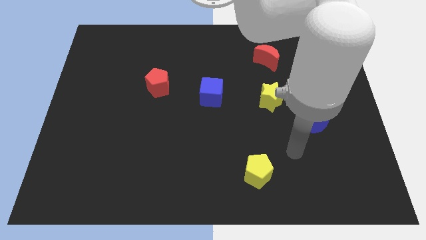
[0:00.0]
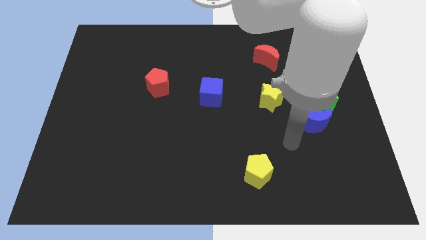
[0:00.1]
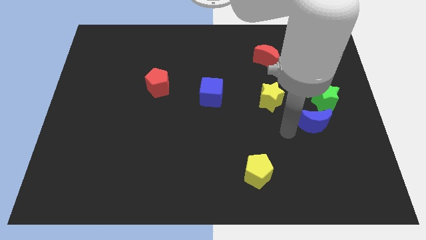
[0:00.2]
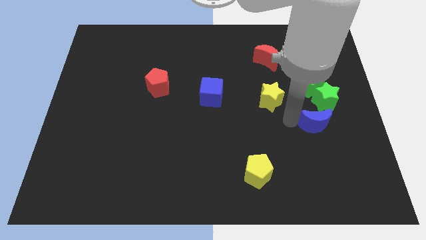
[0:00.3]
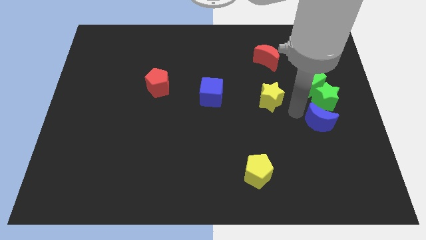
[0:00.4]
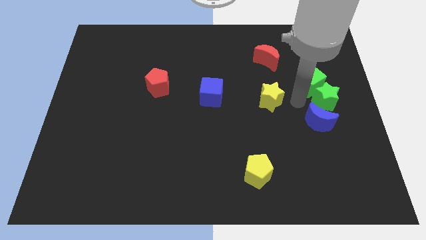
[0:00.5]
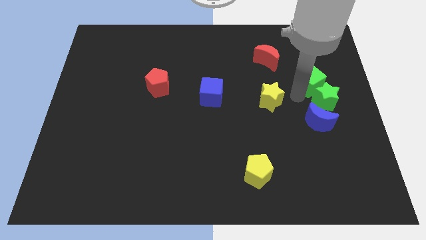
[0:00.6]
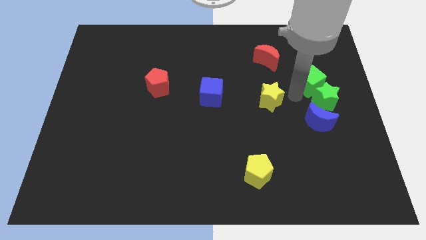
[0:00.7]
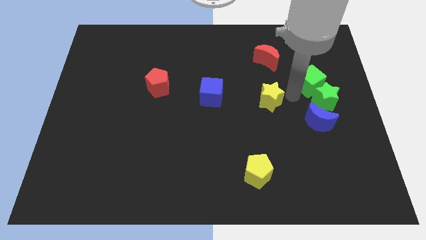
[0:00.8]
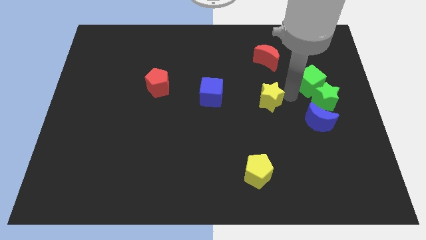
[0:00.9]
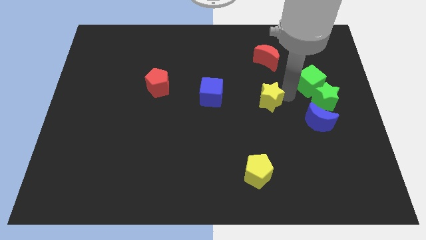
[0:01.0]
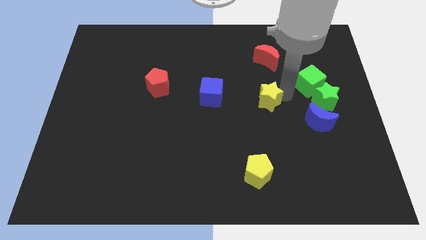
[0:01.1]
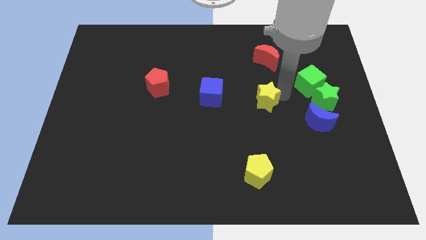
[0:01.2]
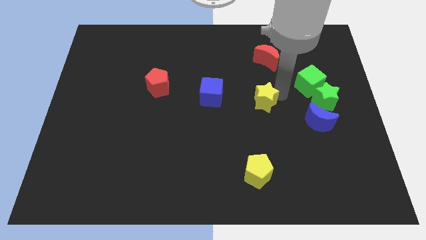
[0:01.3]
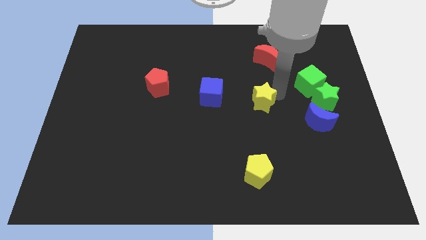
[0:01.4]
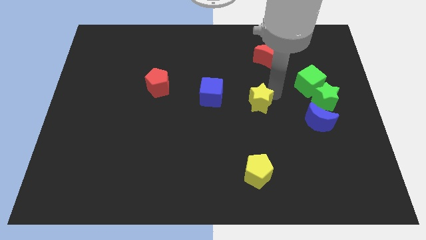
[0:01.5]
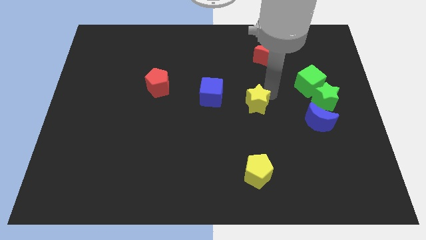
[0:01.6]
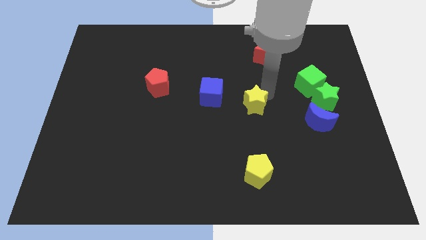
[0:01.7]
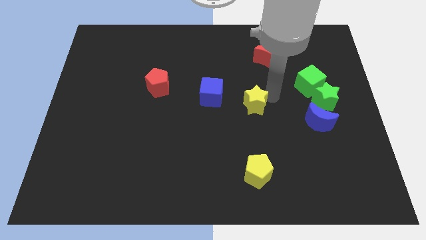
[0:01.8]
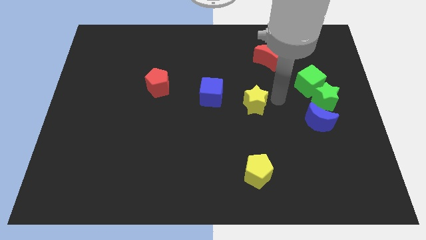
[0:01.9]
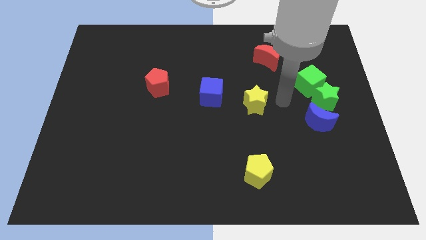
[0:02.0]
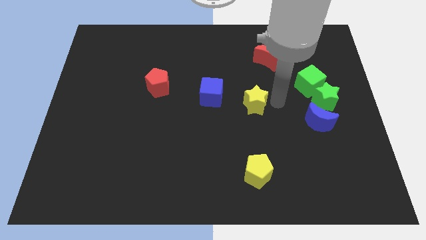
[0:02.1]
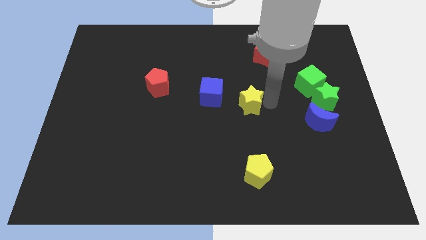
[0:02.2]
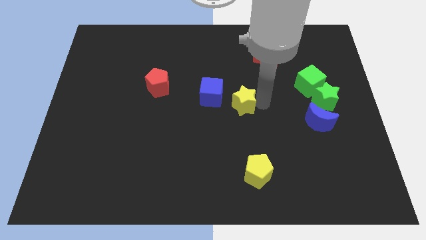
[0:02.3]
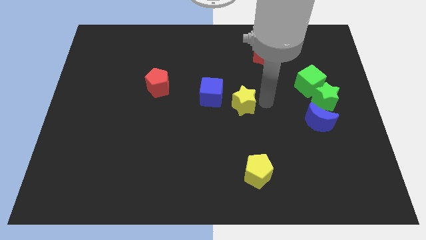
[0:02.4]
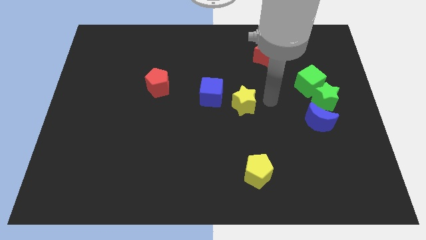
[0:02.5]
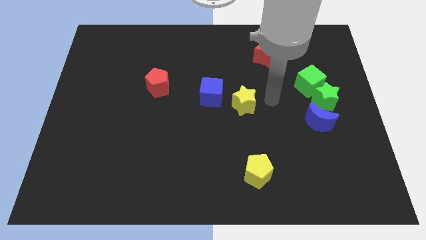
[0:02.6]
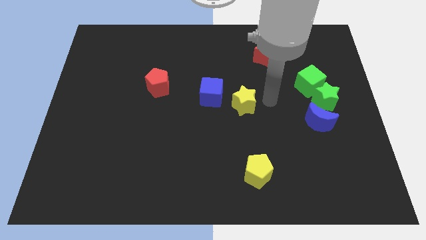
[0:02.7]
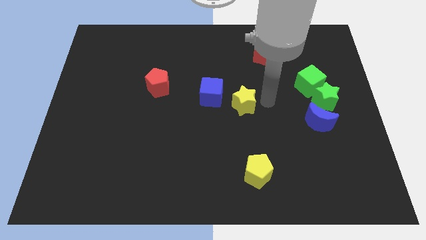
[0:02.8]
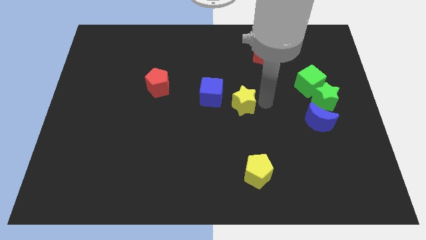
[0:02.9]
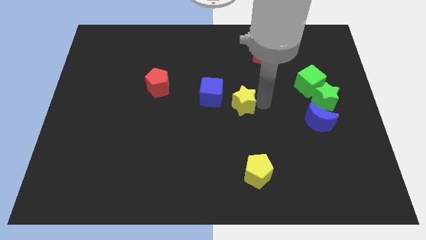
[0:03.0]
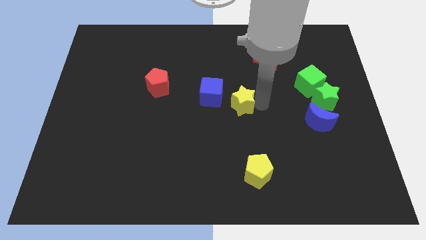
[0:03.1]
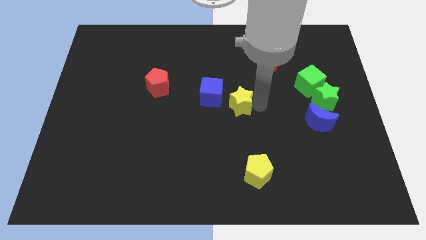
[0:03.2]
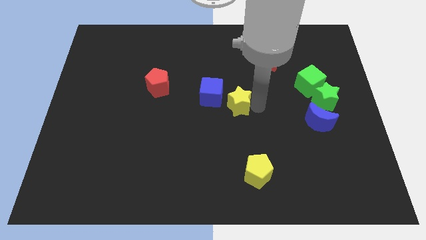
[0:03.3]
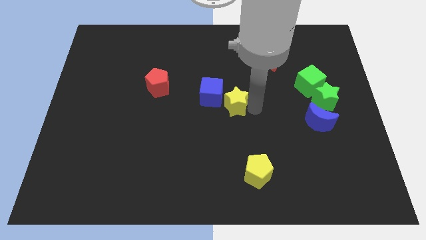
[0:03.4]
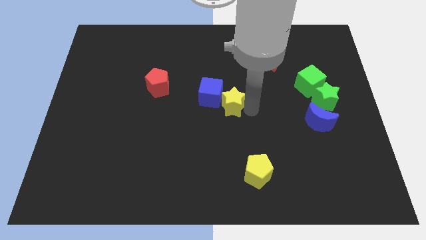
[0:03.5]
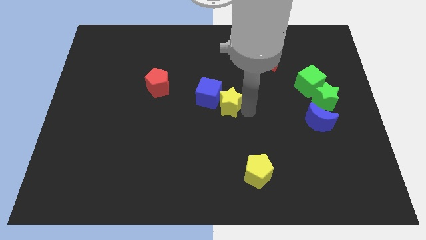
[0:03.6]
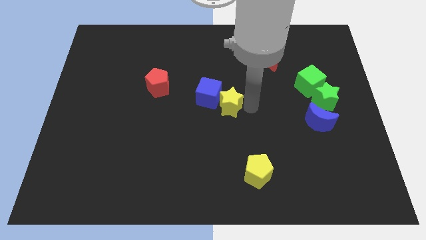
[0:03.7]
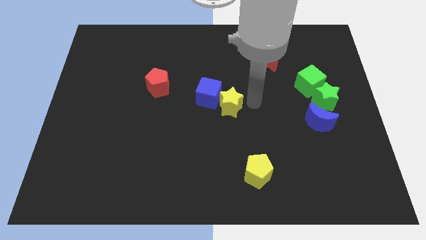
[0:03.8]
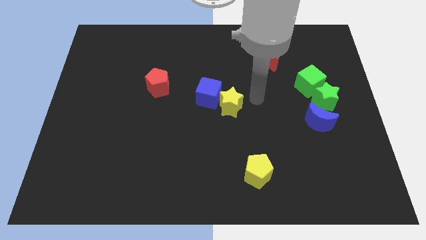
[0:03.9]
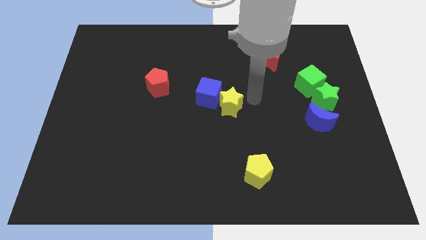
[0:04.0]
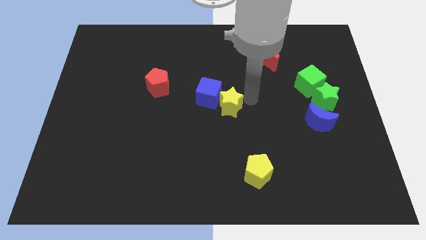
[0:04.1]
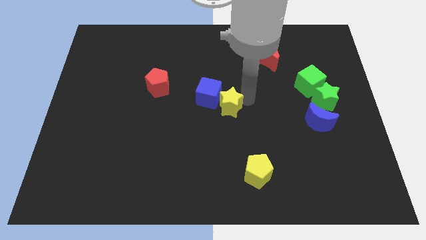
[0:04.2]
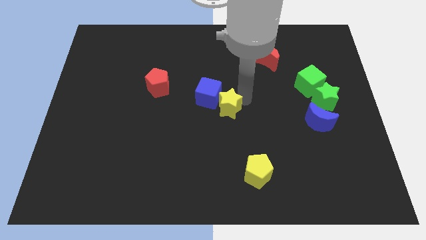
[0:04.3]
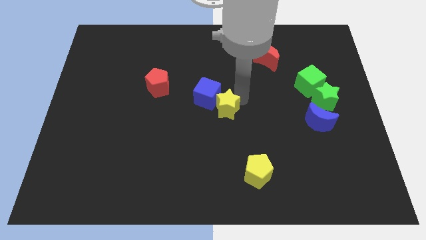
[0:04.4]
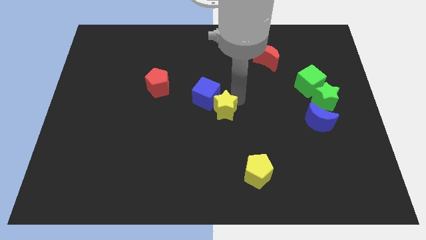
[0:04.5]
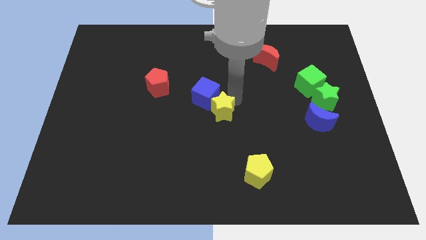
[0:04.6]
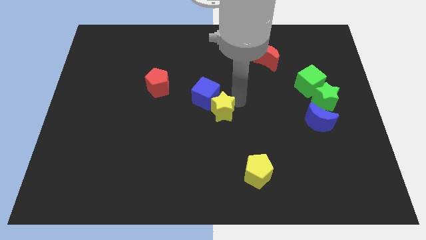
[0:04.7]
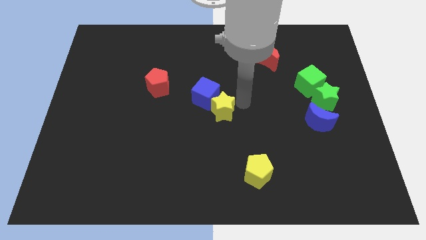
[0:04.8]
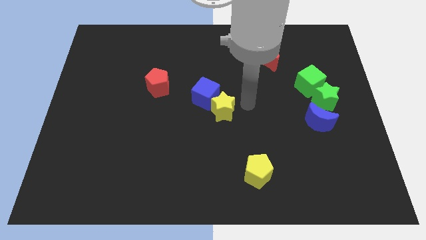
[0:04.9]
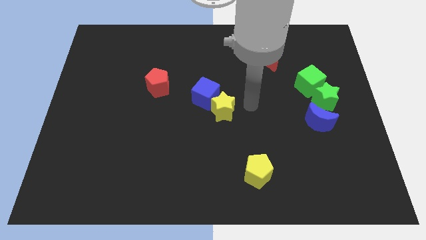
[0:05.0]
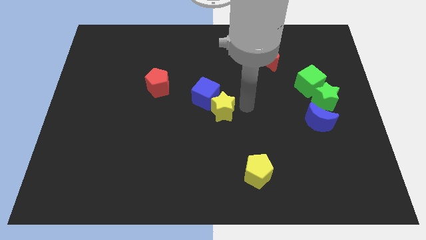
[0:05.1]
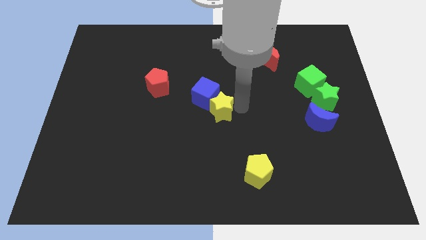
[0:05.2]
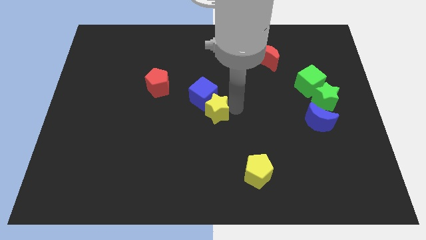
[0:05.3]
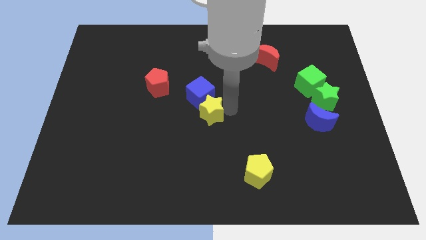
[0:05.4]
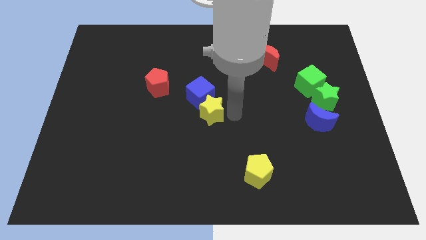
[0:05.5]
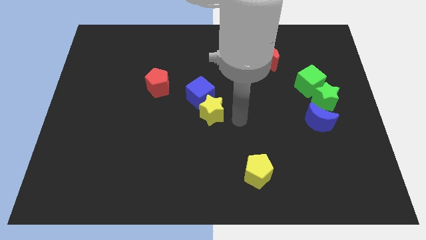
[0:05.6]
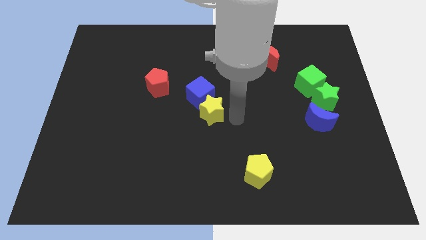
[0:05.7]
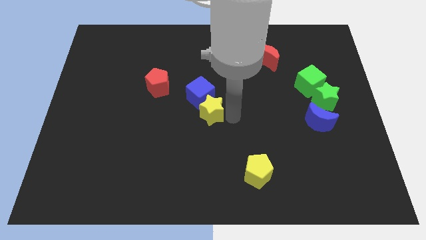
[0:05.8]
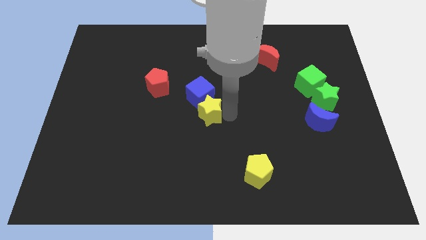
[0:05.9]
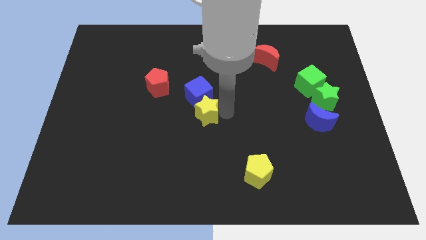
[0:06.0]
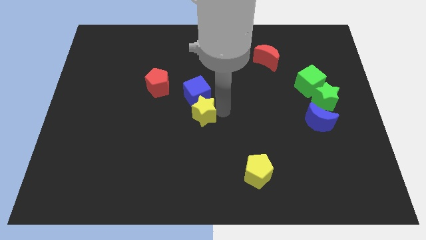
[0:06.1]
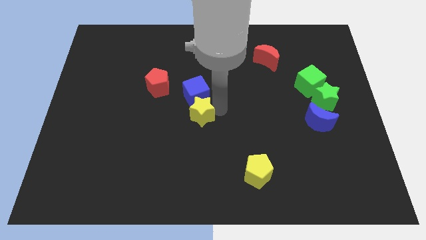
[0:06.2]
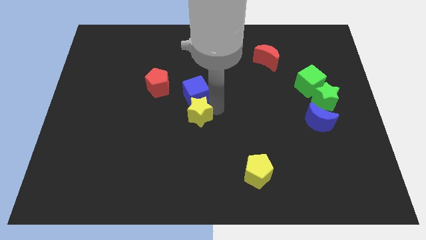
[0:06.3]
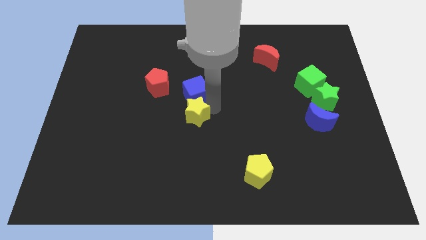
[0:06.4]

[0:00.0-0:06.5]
push the yellow star diagonally down and to the right of the red pentagon

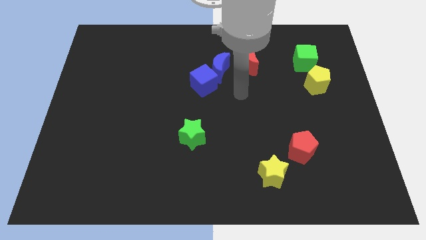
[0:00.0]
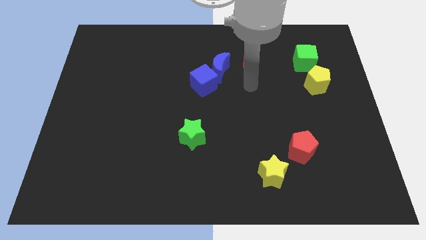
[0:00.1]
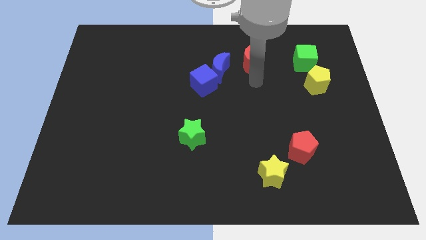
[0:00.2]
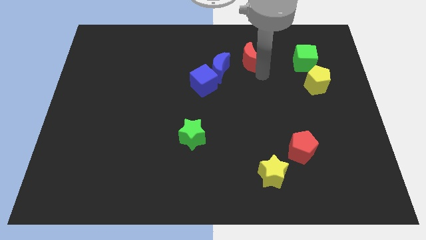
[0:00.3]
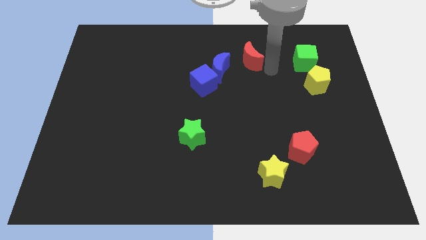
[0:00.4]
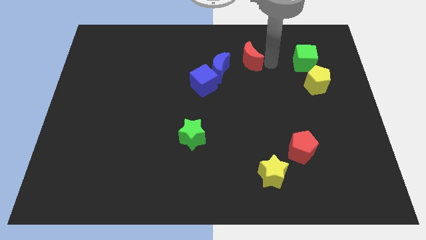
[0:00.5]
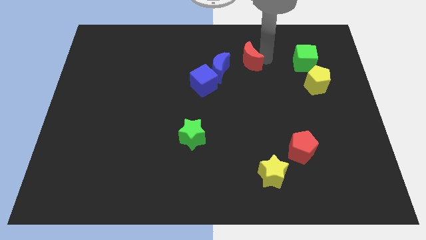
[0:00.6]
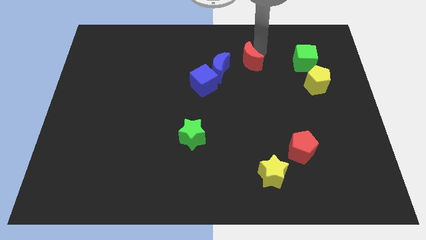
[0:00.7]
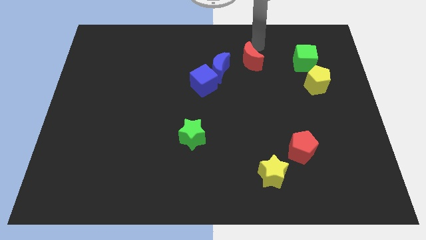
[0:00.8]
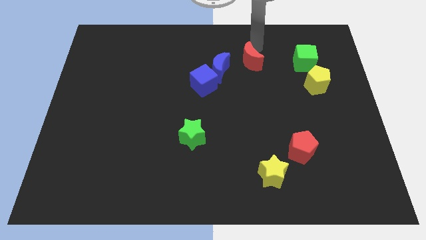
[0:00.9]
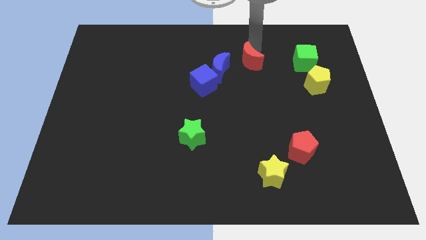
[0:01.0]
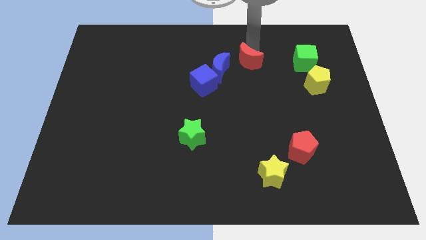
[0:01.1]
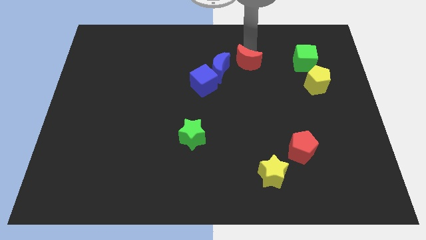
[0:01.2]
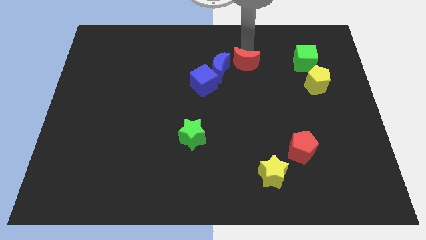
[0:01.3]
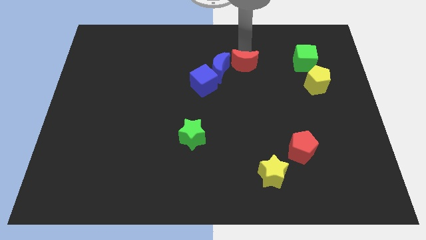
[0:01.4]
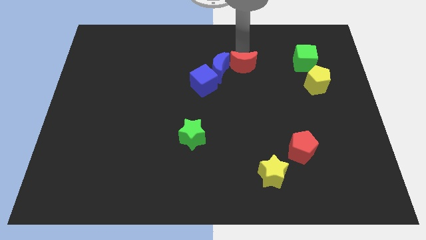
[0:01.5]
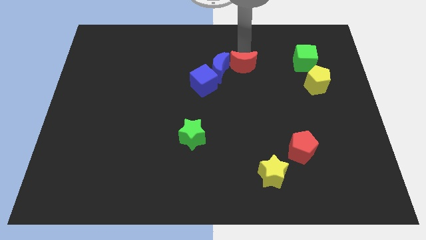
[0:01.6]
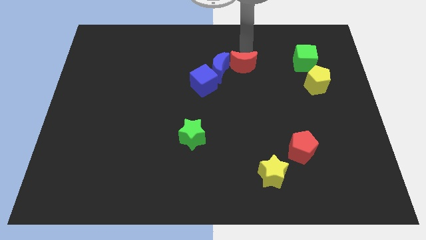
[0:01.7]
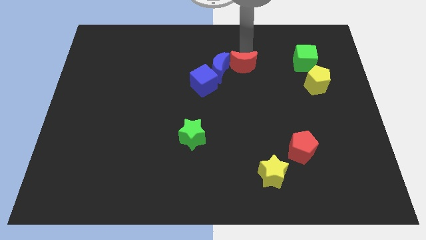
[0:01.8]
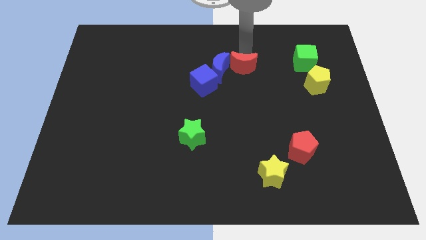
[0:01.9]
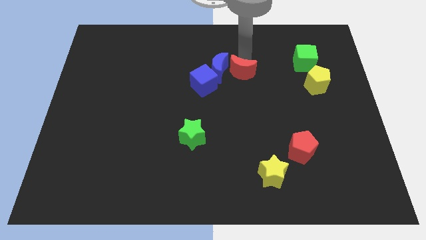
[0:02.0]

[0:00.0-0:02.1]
put the red moon diagonally down and to the right of the blue moon

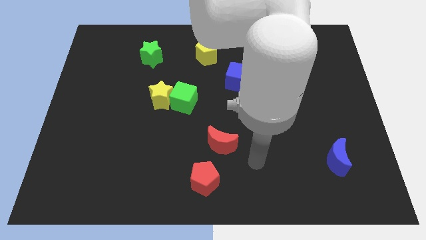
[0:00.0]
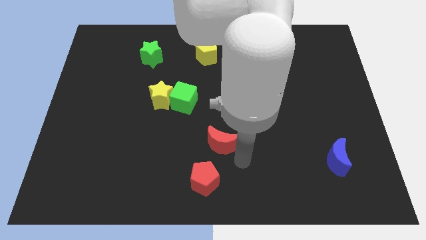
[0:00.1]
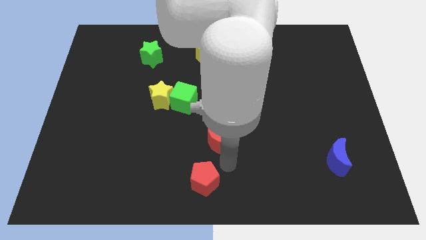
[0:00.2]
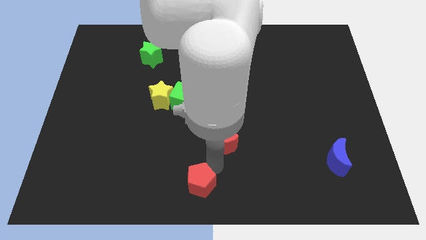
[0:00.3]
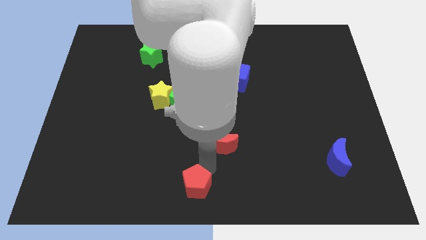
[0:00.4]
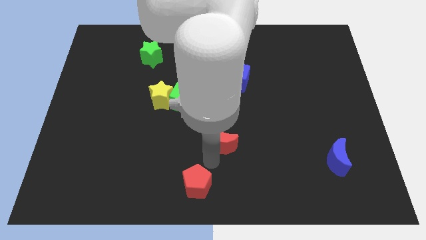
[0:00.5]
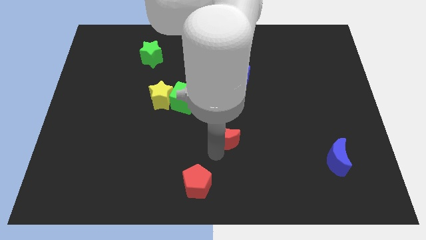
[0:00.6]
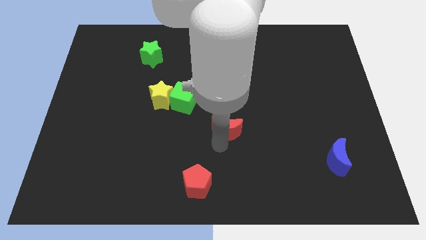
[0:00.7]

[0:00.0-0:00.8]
put the red moon below the blue cube
